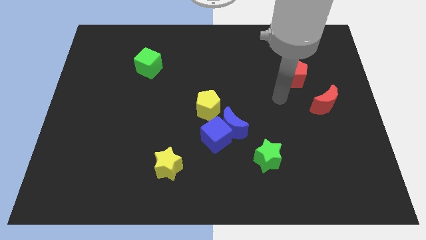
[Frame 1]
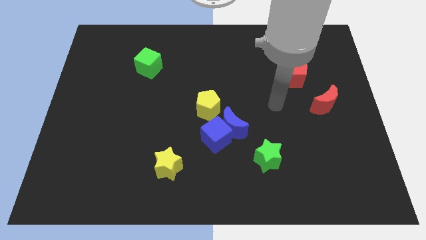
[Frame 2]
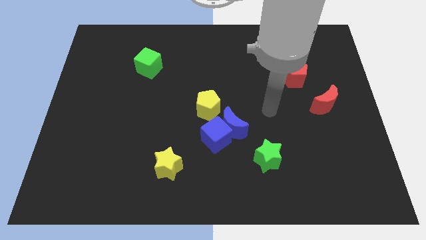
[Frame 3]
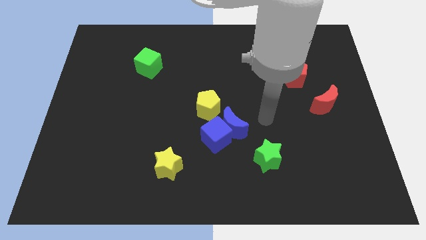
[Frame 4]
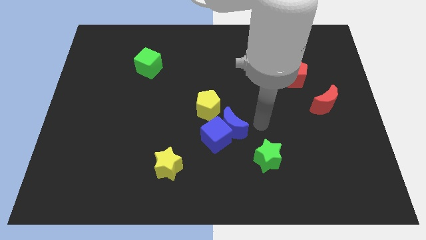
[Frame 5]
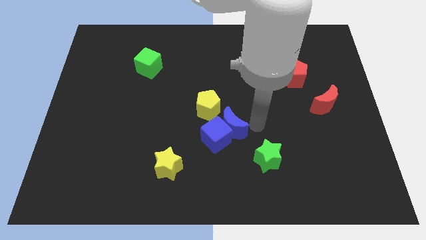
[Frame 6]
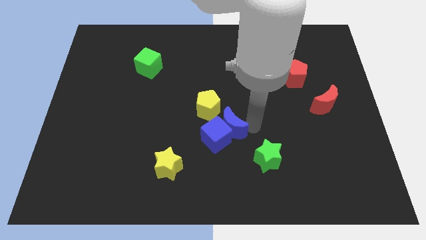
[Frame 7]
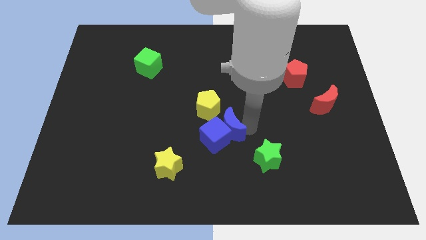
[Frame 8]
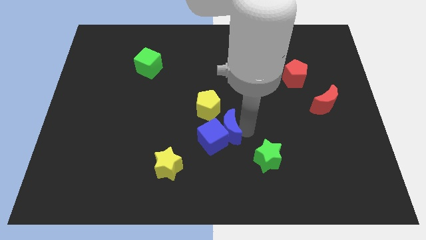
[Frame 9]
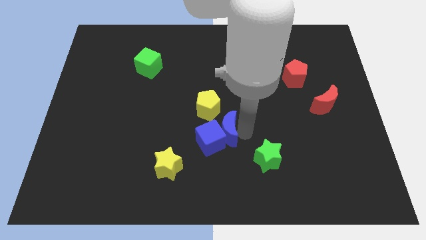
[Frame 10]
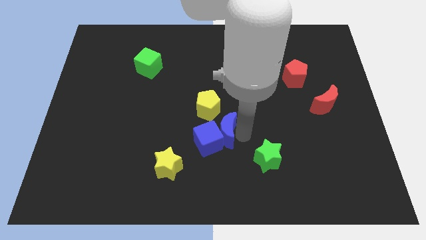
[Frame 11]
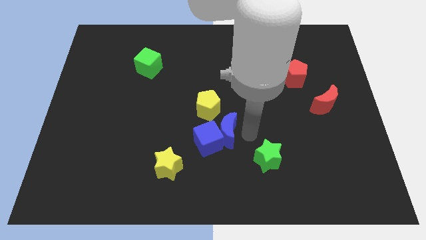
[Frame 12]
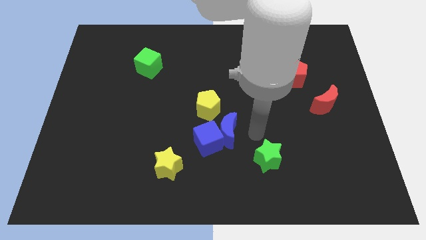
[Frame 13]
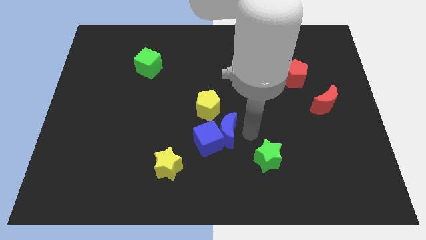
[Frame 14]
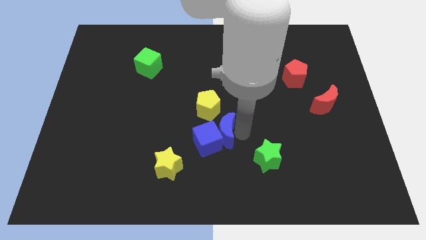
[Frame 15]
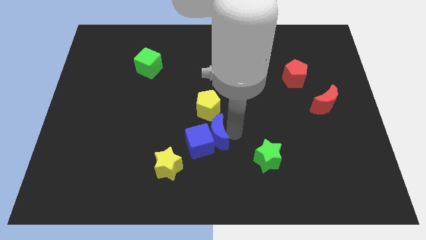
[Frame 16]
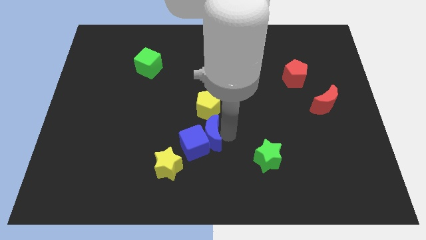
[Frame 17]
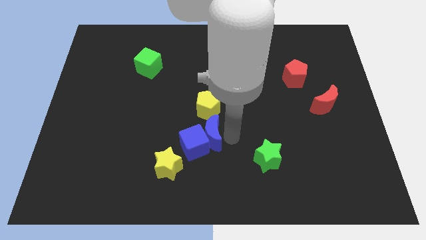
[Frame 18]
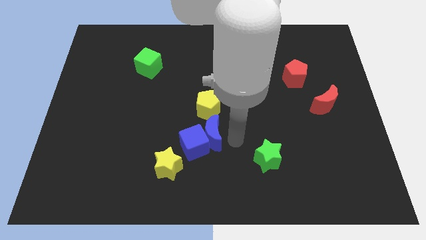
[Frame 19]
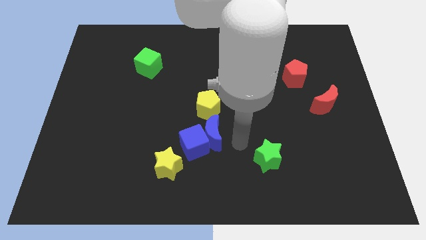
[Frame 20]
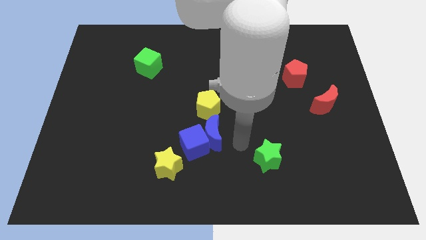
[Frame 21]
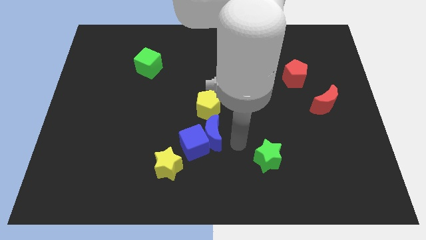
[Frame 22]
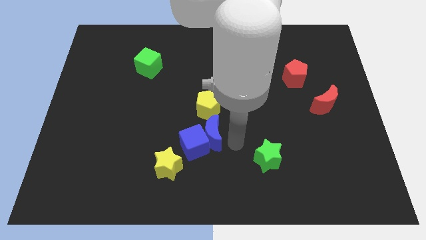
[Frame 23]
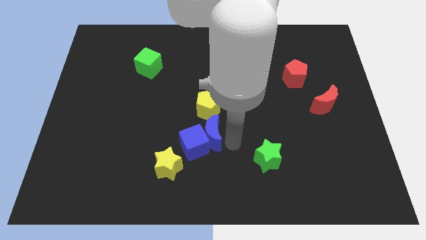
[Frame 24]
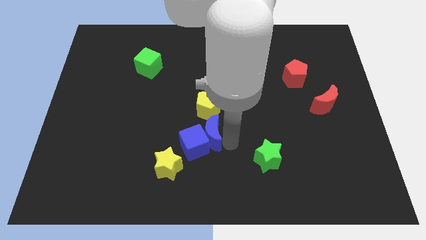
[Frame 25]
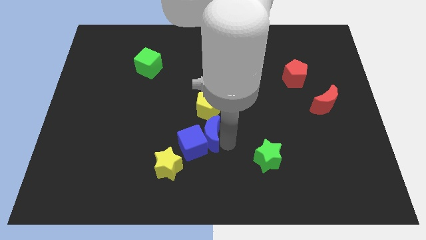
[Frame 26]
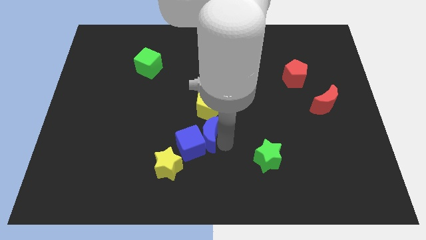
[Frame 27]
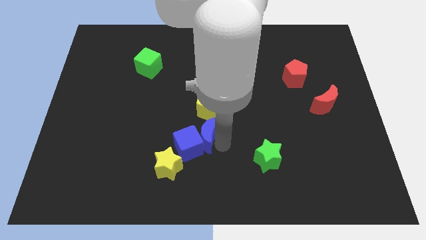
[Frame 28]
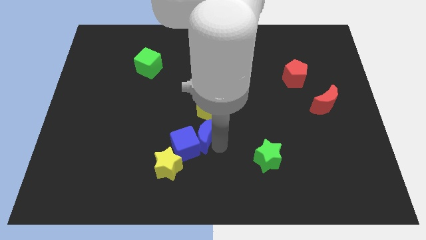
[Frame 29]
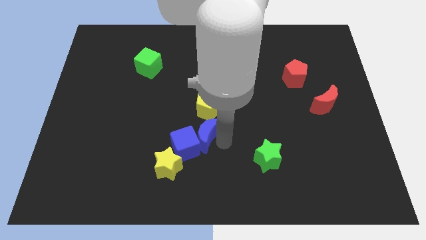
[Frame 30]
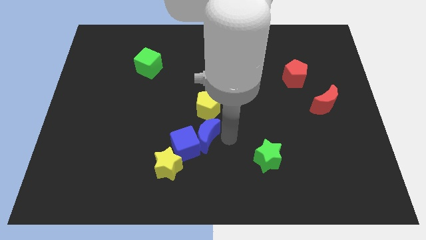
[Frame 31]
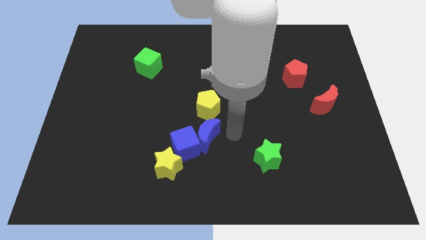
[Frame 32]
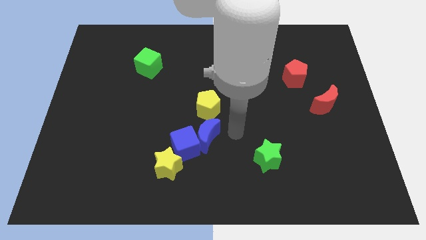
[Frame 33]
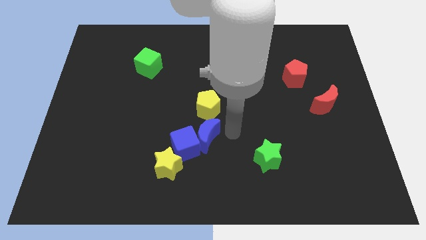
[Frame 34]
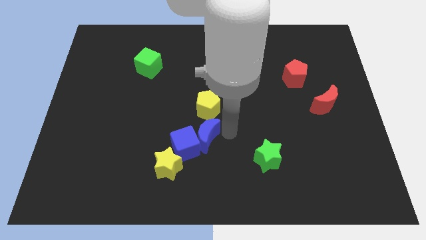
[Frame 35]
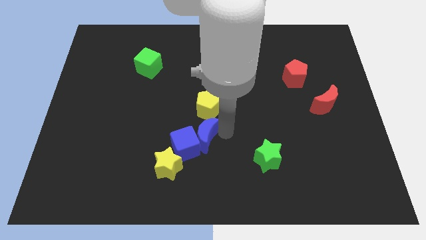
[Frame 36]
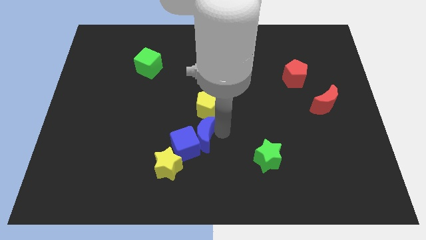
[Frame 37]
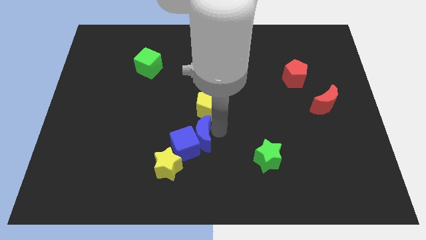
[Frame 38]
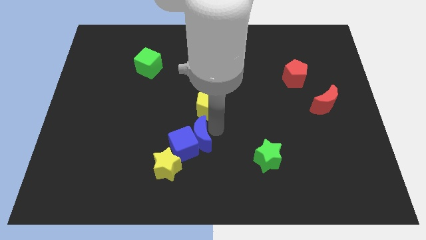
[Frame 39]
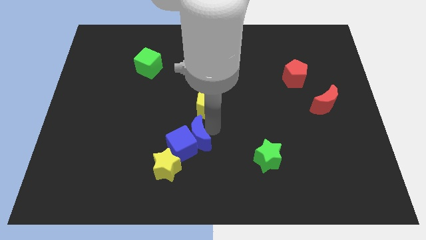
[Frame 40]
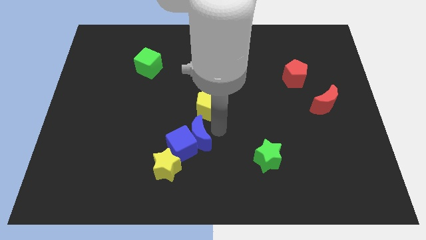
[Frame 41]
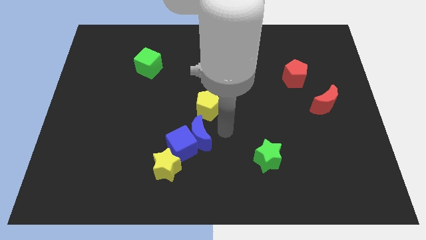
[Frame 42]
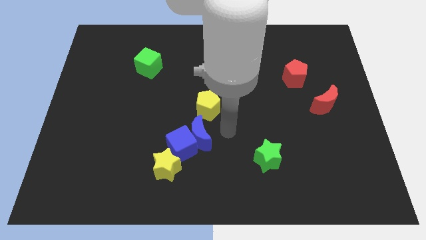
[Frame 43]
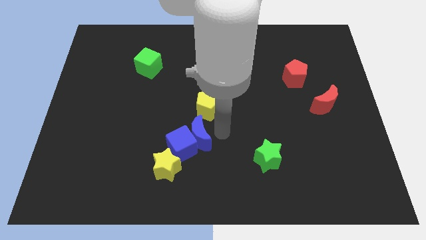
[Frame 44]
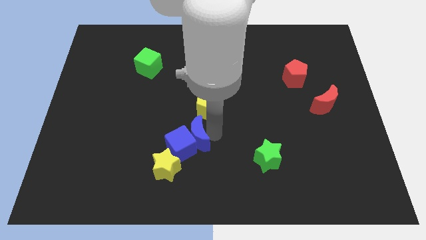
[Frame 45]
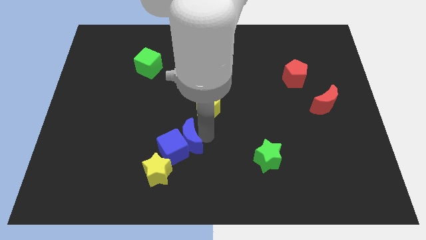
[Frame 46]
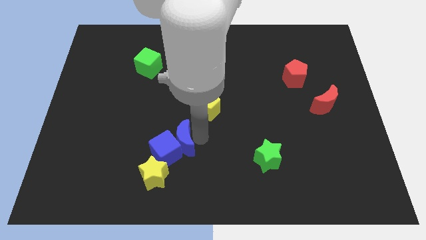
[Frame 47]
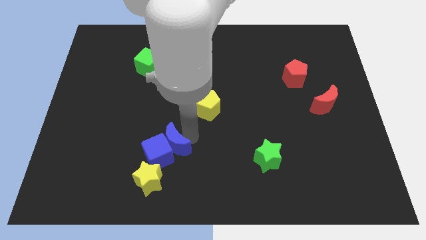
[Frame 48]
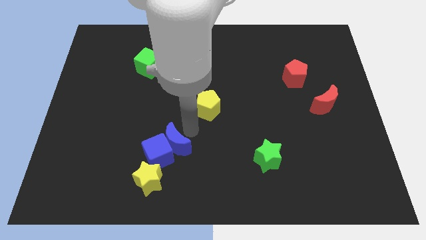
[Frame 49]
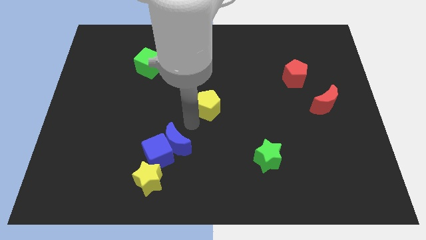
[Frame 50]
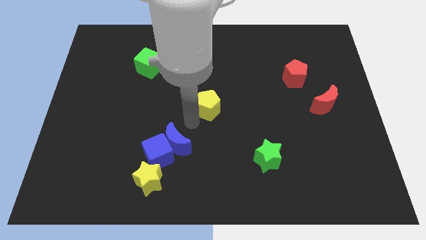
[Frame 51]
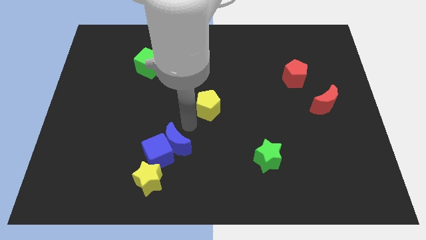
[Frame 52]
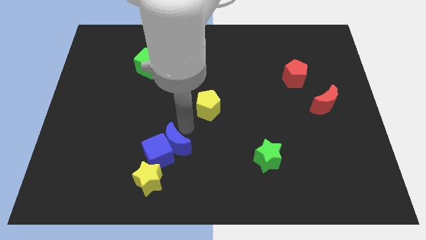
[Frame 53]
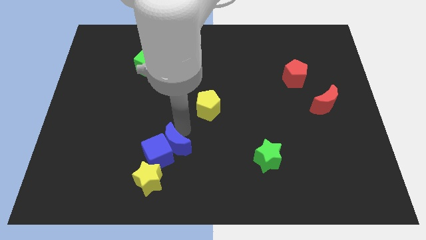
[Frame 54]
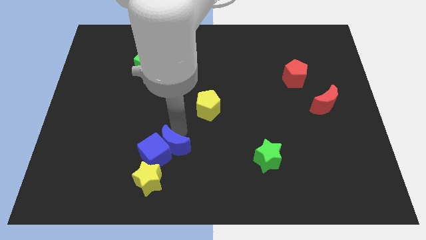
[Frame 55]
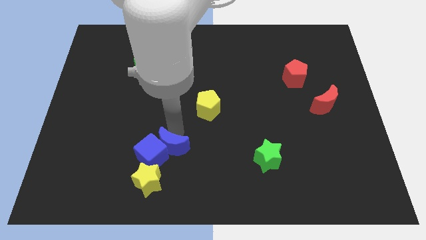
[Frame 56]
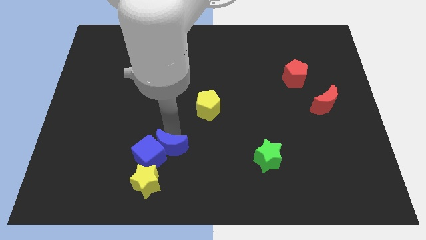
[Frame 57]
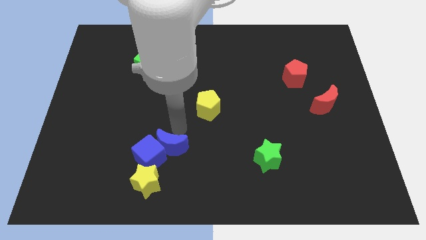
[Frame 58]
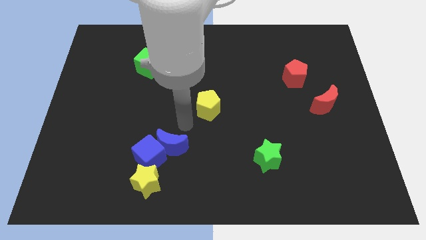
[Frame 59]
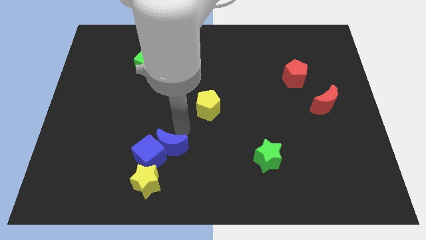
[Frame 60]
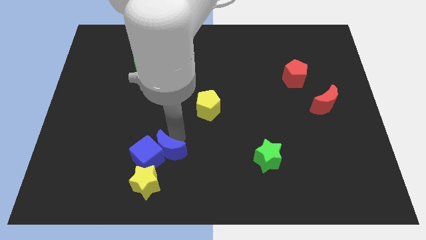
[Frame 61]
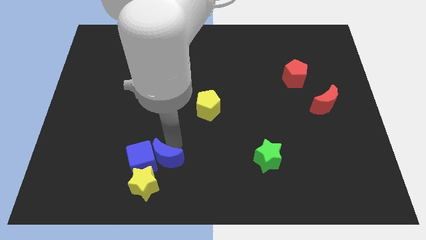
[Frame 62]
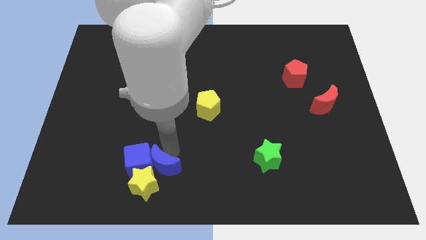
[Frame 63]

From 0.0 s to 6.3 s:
put the blue moon towards the yellow star
